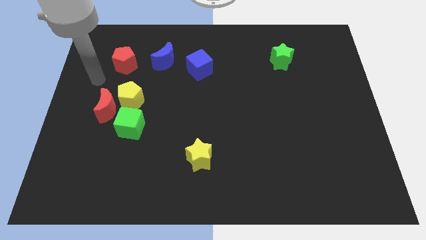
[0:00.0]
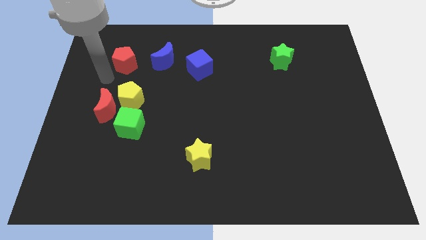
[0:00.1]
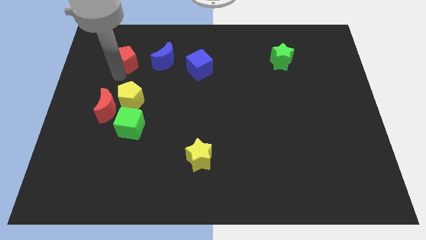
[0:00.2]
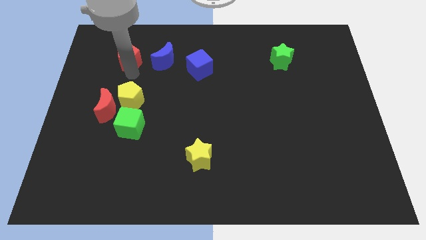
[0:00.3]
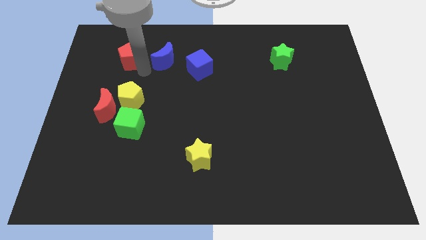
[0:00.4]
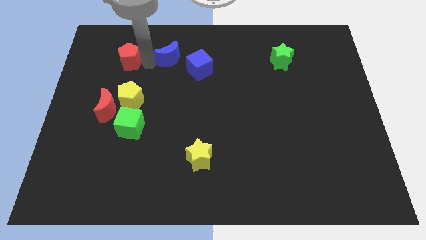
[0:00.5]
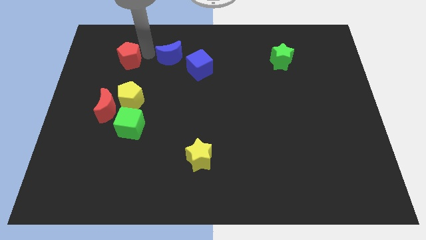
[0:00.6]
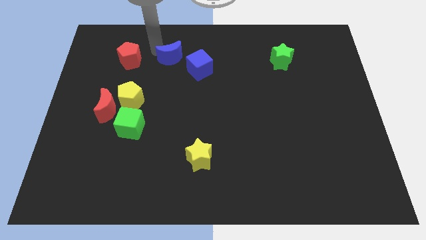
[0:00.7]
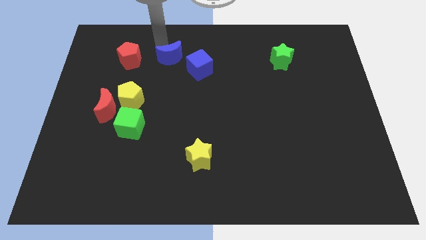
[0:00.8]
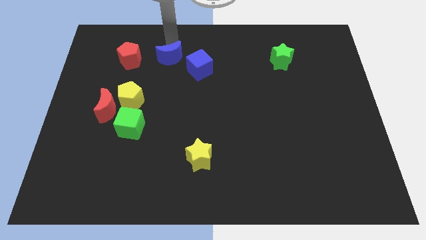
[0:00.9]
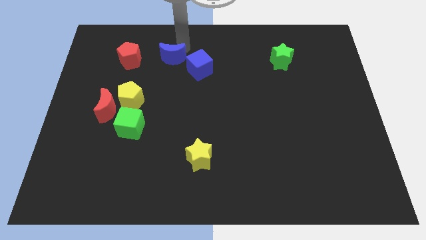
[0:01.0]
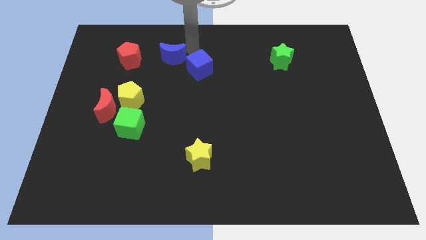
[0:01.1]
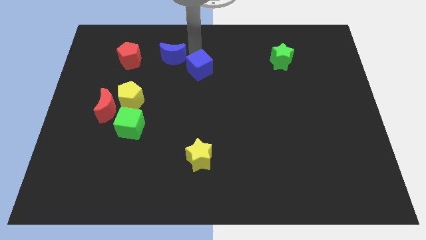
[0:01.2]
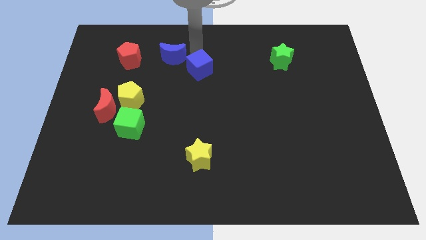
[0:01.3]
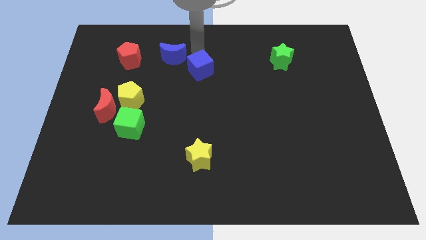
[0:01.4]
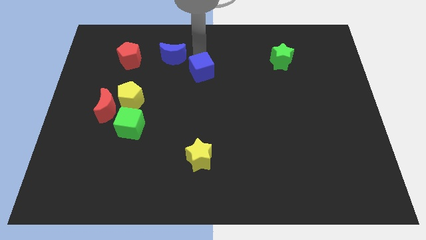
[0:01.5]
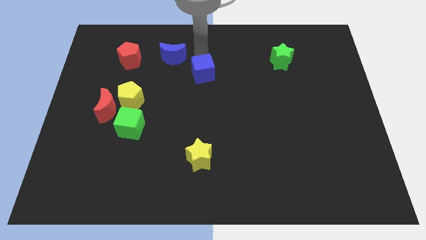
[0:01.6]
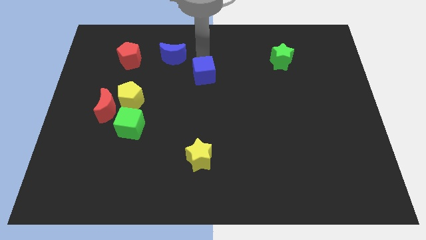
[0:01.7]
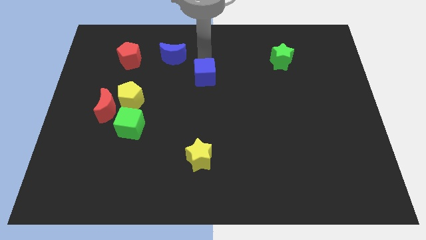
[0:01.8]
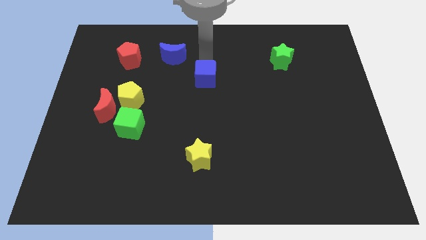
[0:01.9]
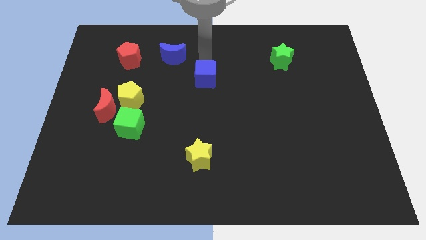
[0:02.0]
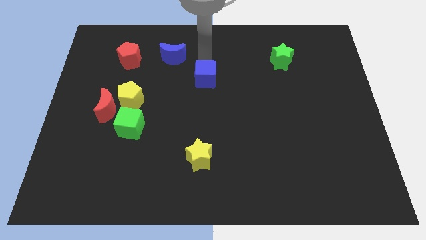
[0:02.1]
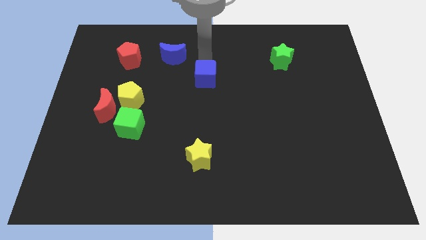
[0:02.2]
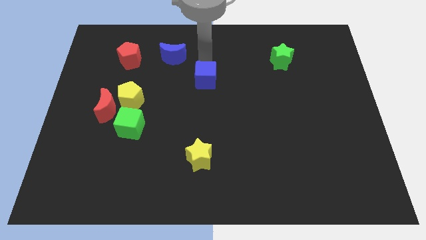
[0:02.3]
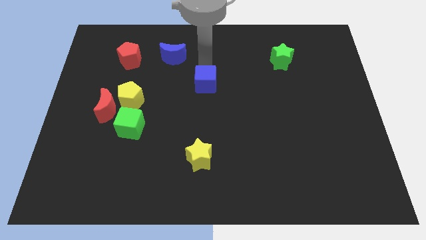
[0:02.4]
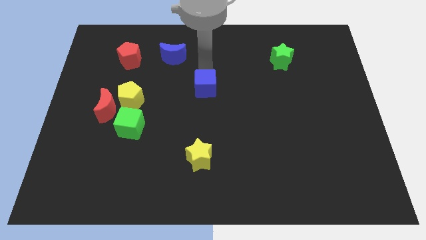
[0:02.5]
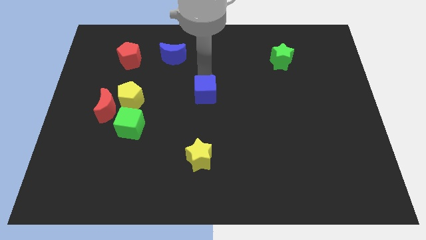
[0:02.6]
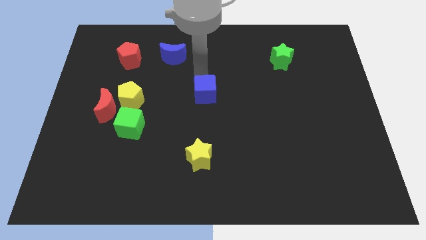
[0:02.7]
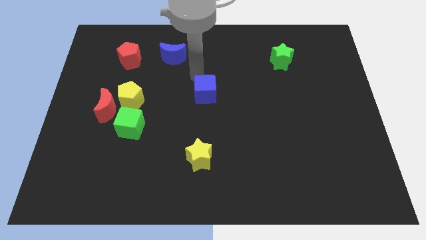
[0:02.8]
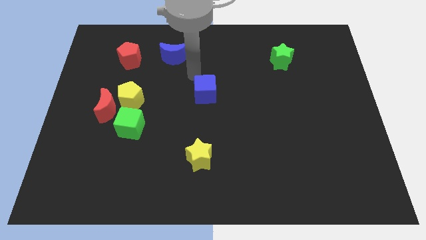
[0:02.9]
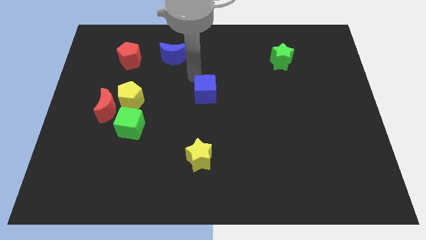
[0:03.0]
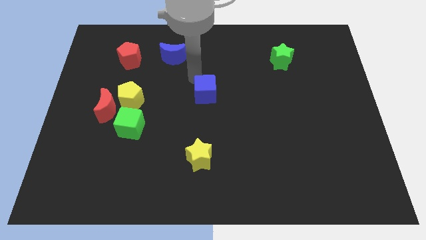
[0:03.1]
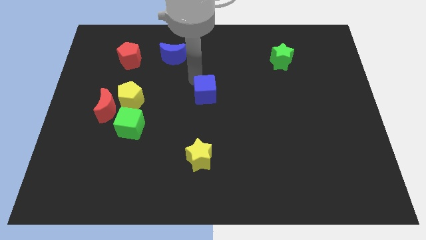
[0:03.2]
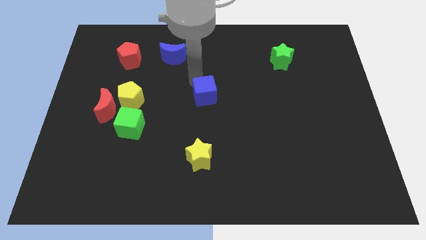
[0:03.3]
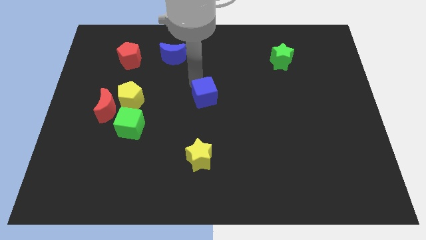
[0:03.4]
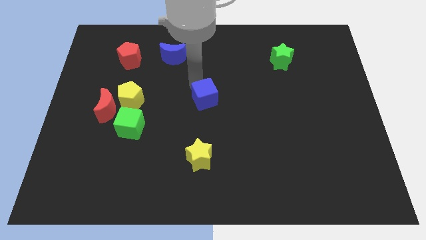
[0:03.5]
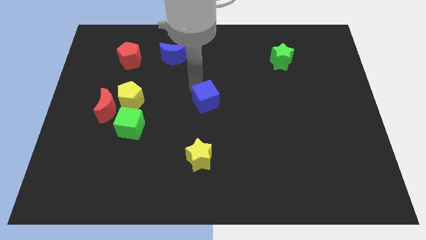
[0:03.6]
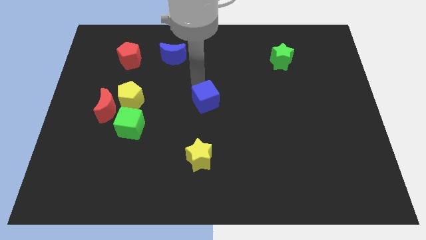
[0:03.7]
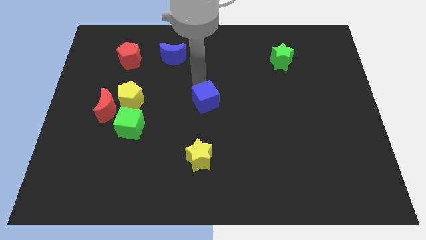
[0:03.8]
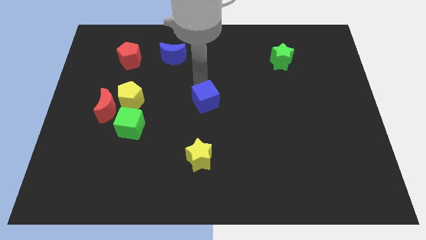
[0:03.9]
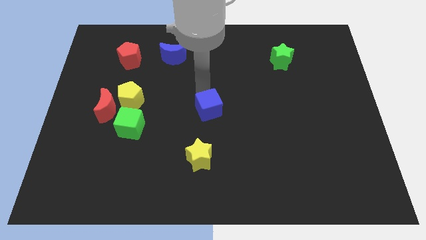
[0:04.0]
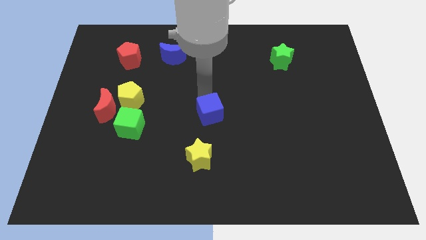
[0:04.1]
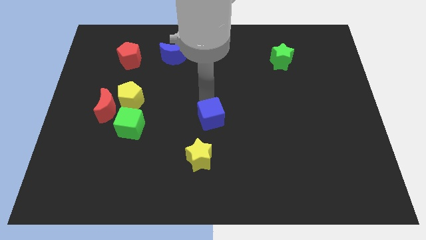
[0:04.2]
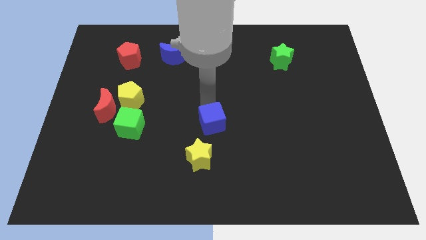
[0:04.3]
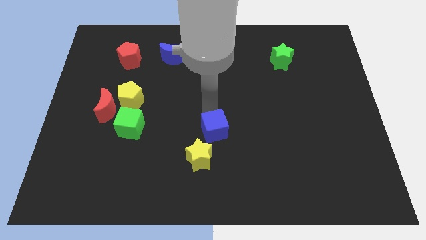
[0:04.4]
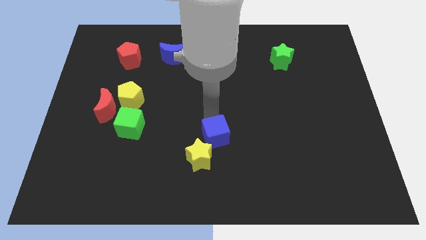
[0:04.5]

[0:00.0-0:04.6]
move the blue cube down

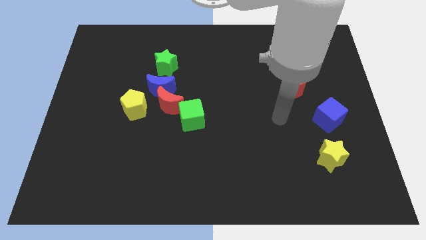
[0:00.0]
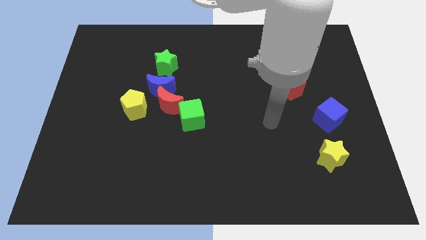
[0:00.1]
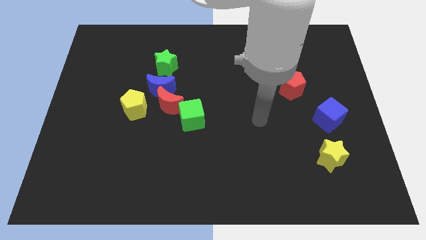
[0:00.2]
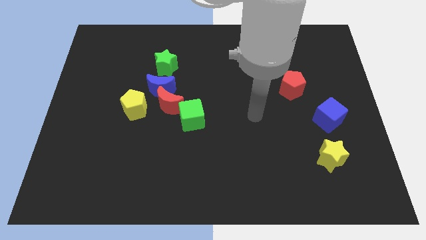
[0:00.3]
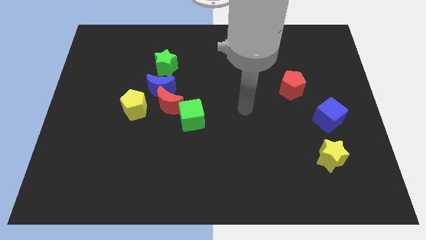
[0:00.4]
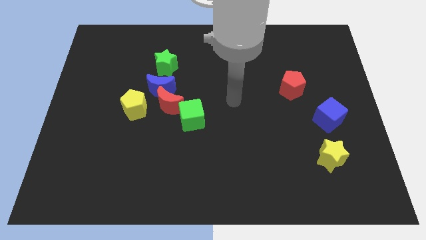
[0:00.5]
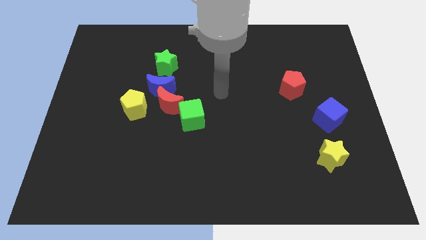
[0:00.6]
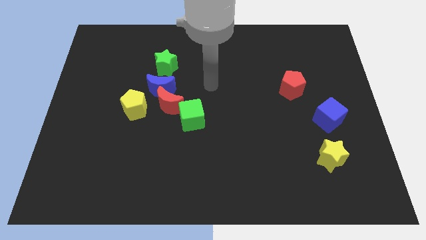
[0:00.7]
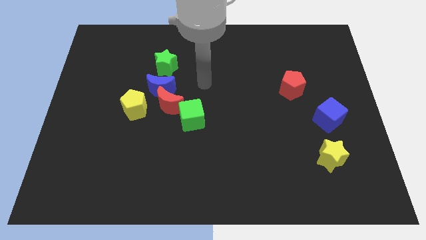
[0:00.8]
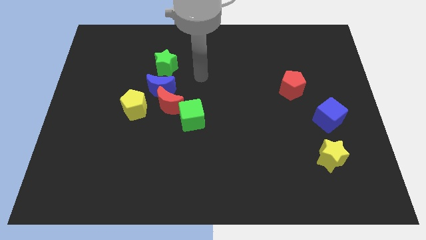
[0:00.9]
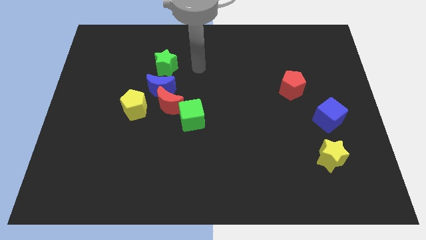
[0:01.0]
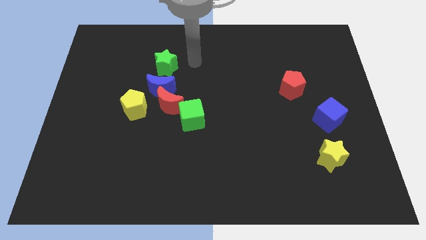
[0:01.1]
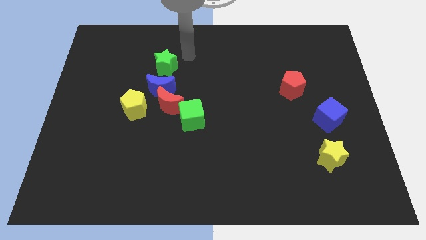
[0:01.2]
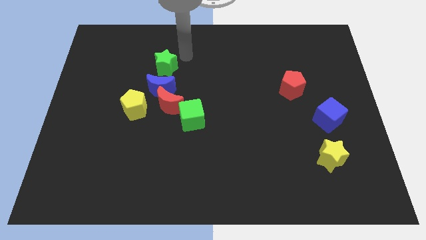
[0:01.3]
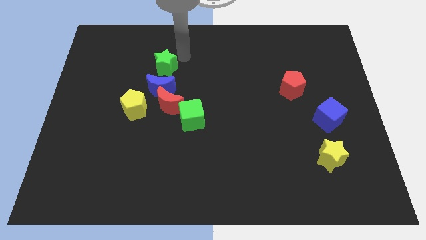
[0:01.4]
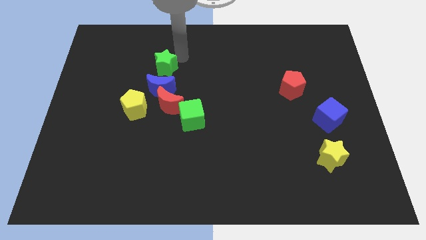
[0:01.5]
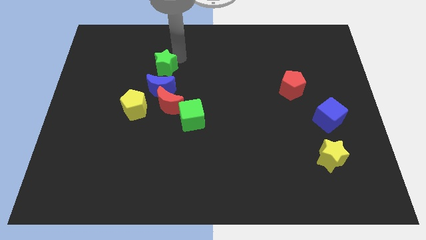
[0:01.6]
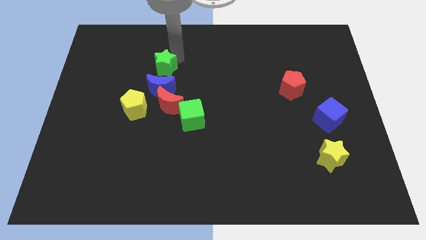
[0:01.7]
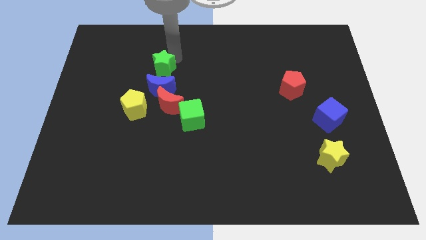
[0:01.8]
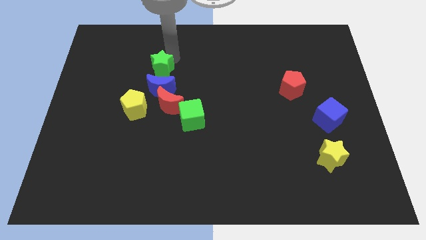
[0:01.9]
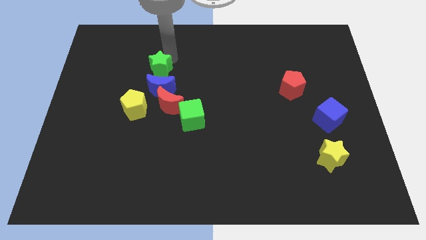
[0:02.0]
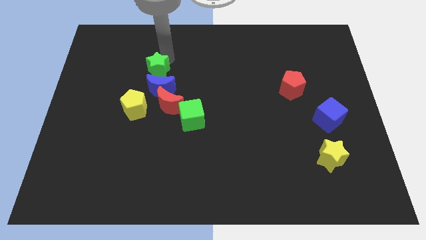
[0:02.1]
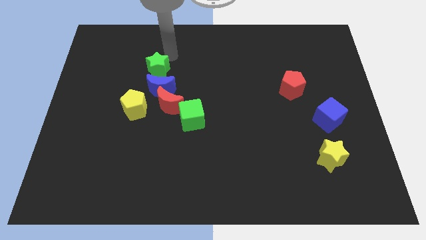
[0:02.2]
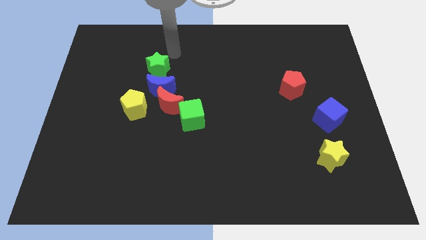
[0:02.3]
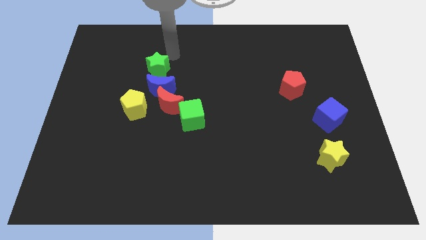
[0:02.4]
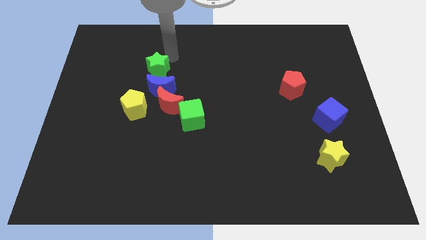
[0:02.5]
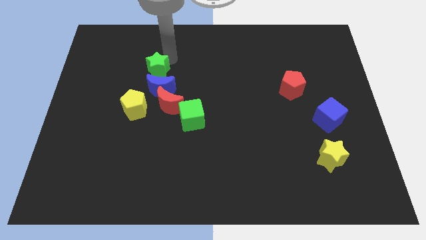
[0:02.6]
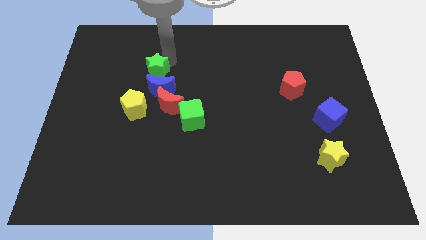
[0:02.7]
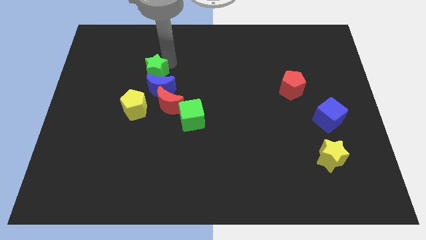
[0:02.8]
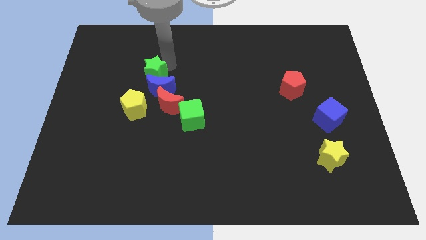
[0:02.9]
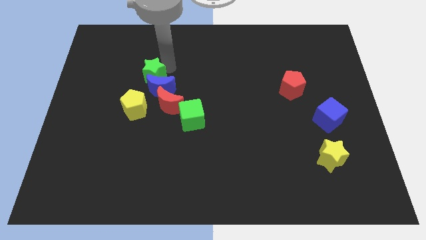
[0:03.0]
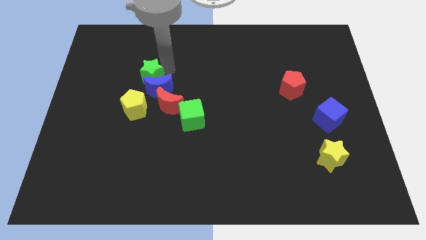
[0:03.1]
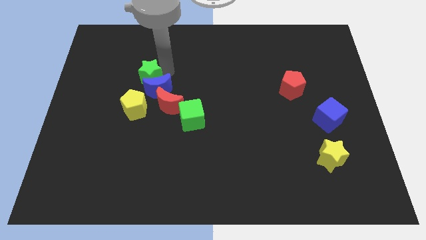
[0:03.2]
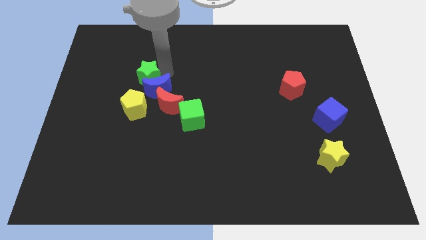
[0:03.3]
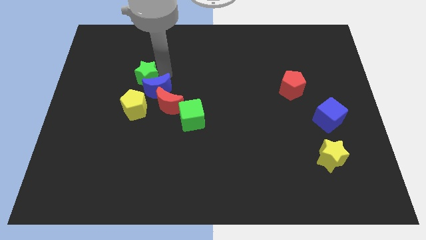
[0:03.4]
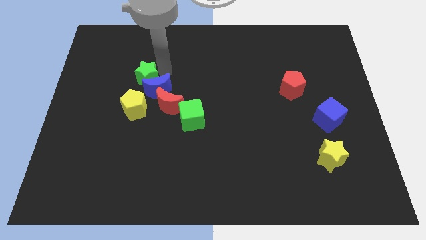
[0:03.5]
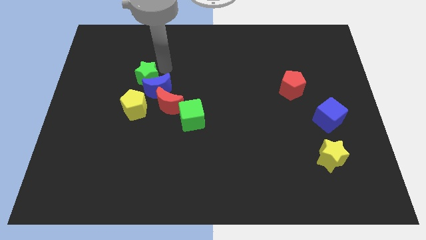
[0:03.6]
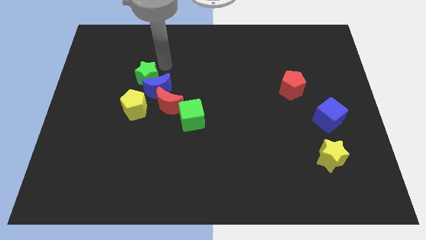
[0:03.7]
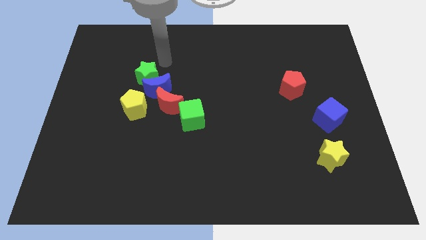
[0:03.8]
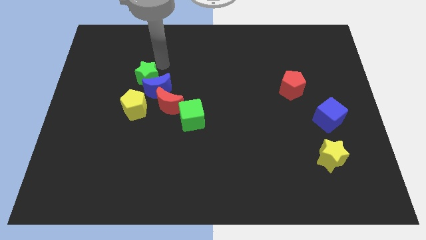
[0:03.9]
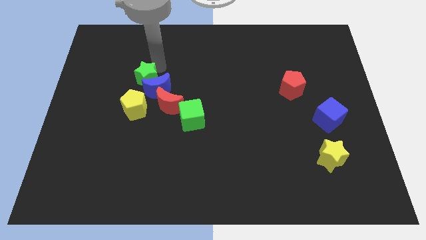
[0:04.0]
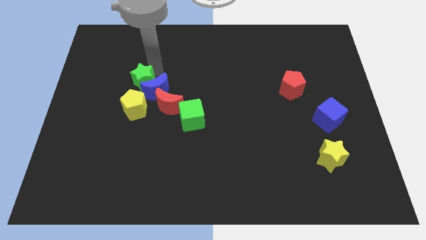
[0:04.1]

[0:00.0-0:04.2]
slightly move the green star down and then to the left
